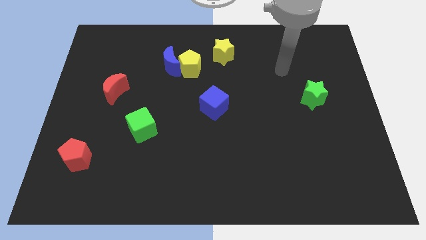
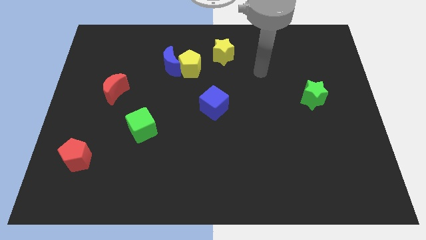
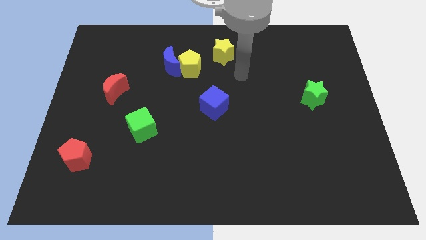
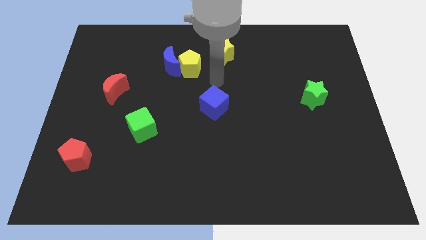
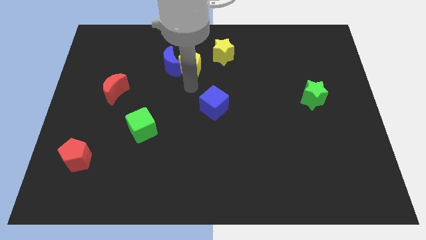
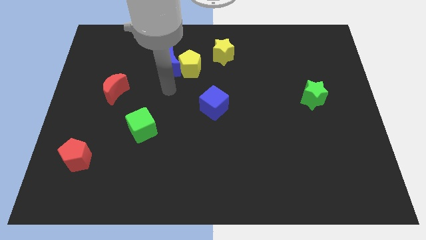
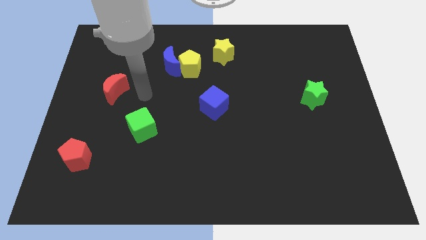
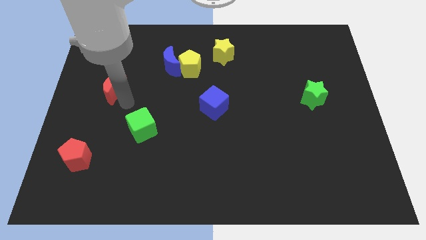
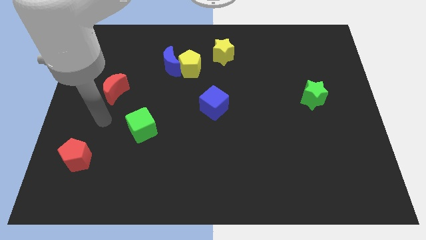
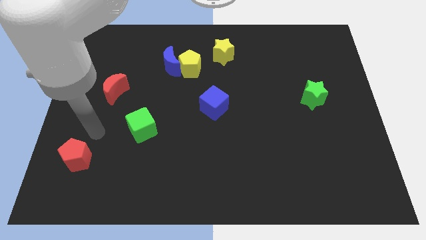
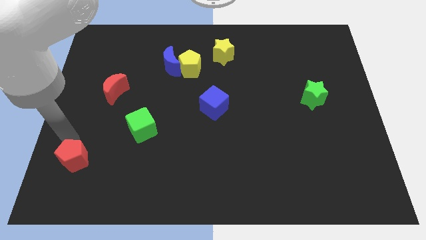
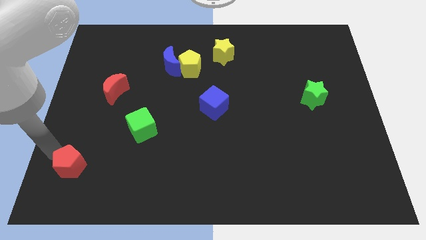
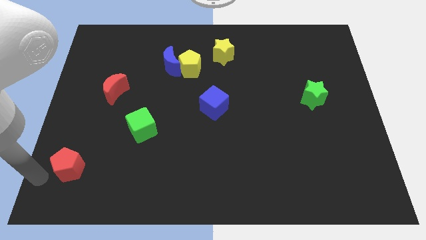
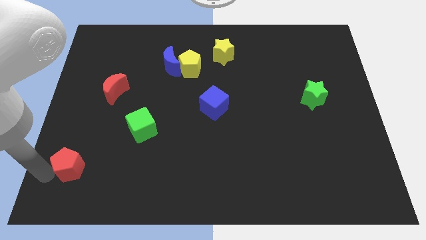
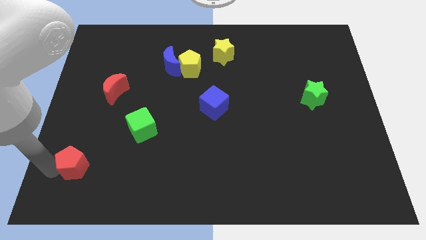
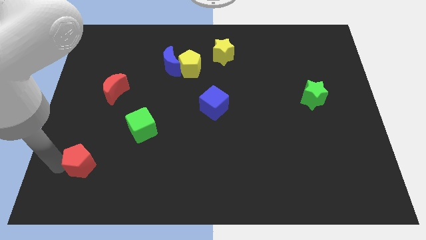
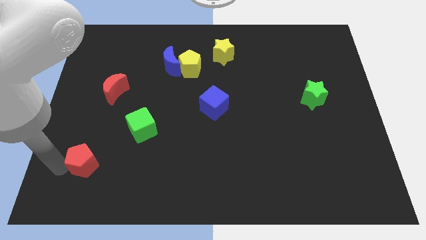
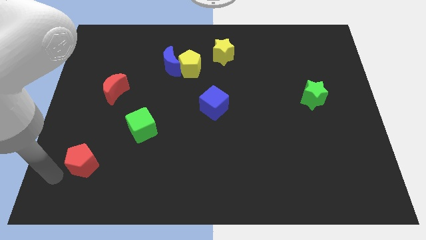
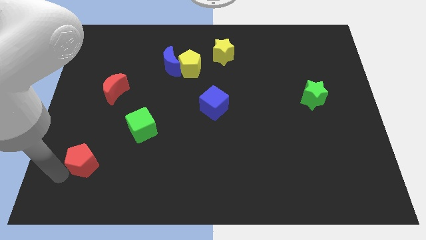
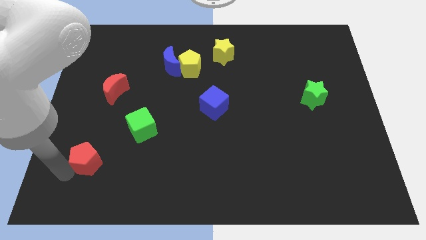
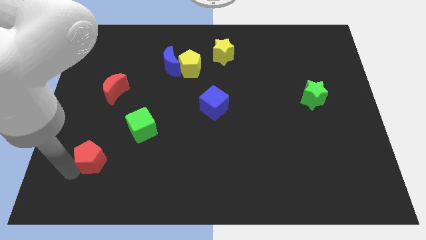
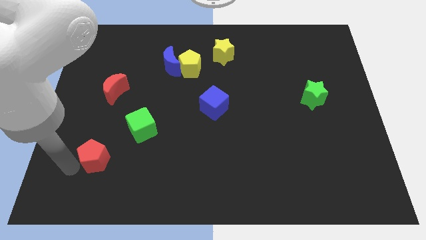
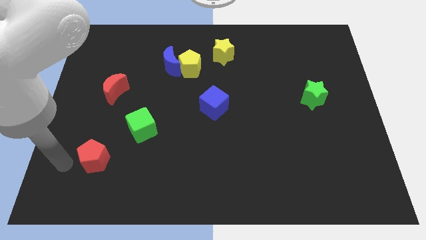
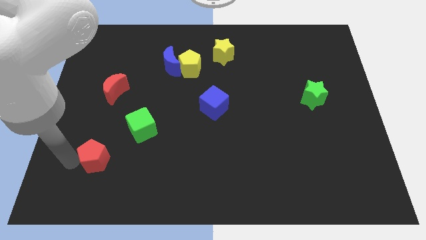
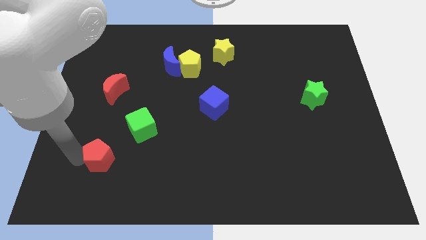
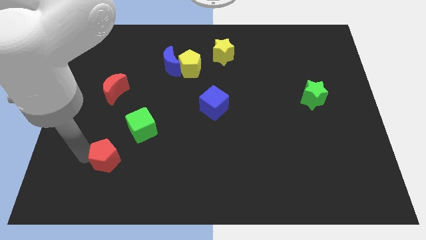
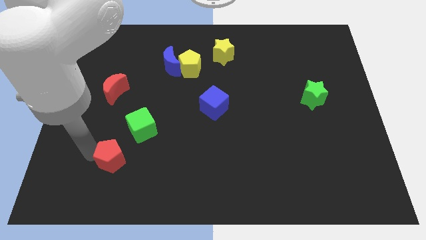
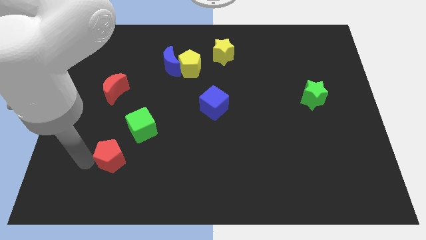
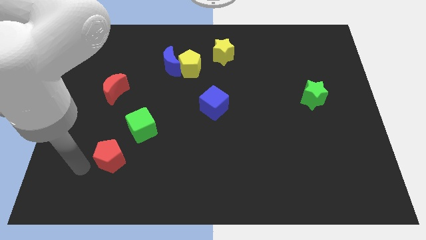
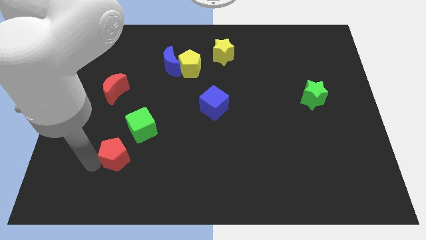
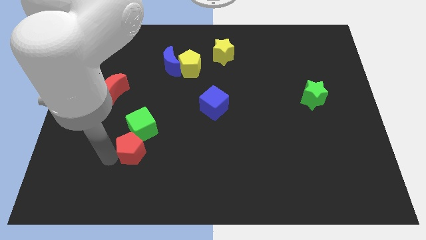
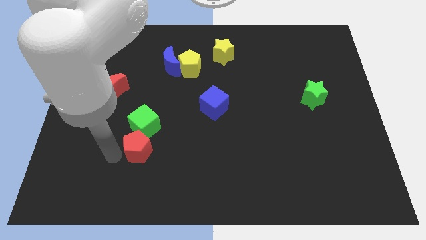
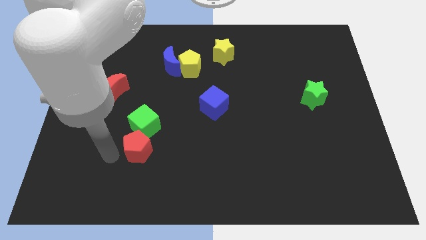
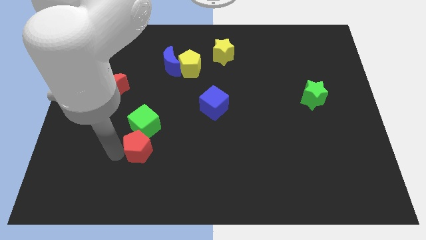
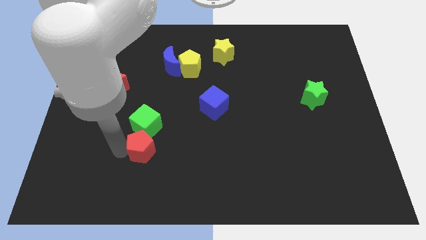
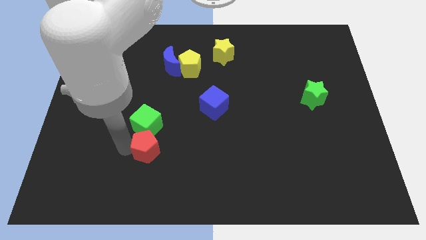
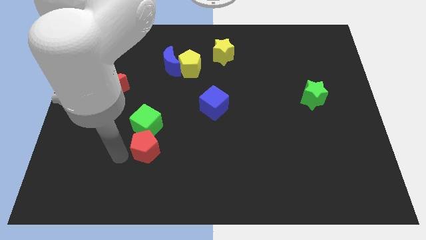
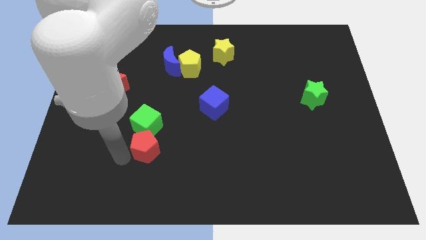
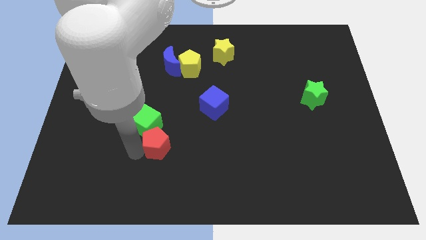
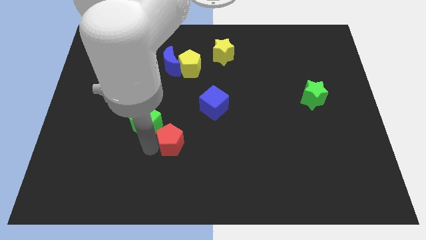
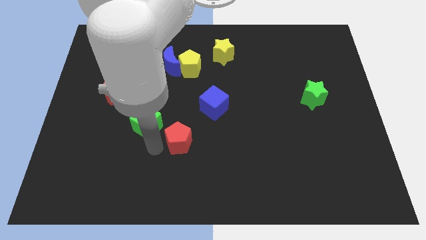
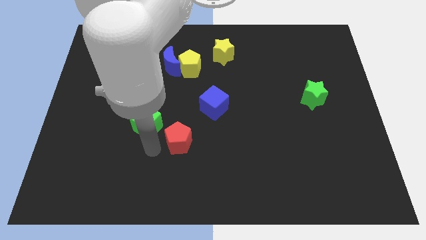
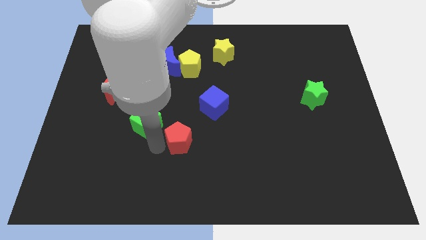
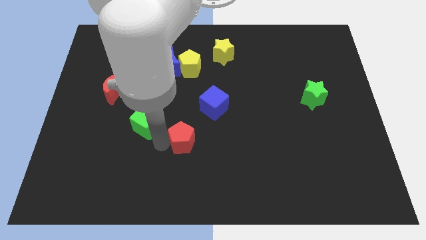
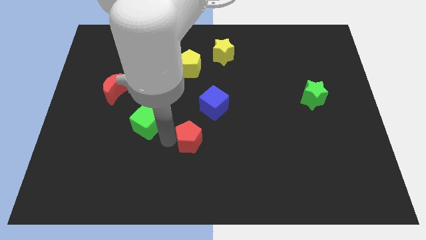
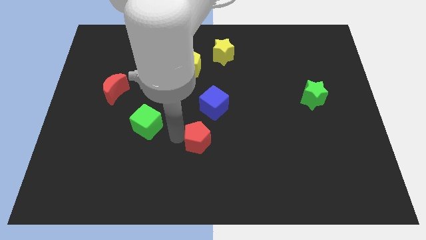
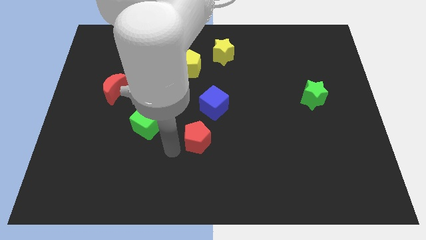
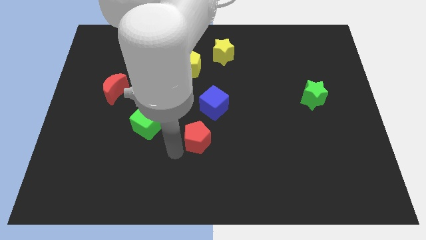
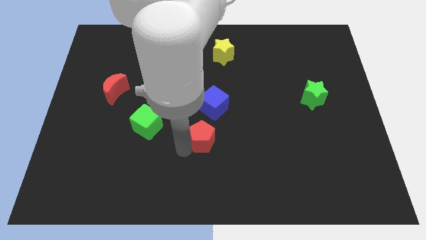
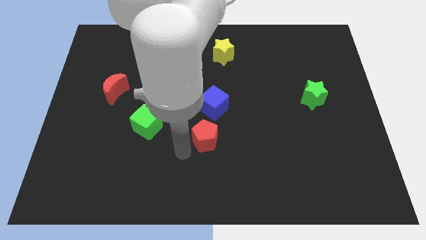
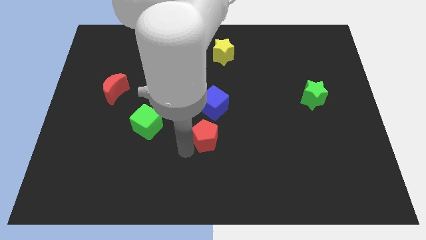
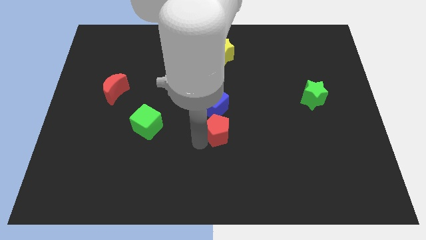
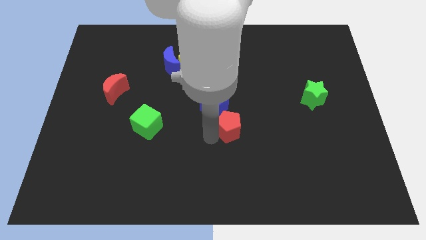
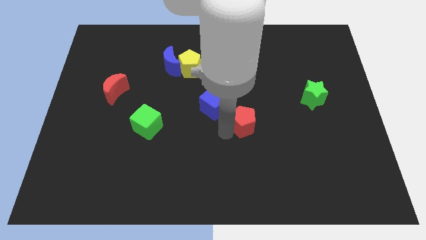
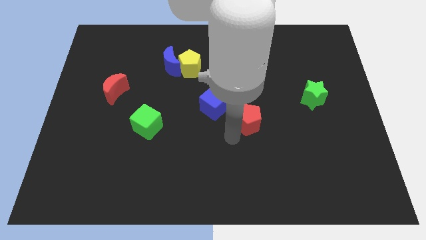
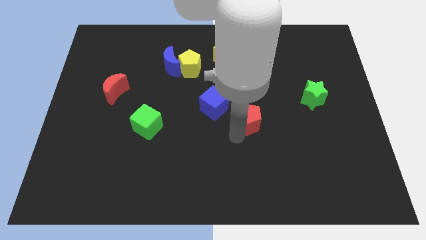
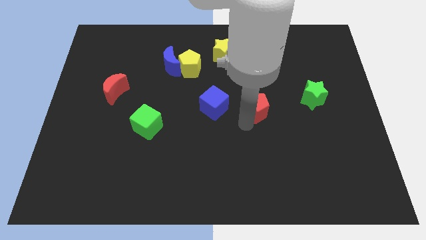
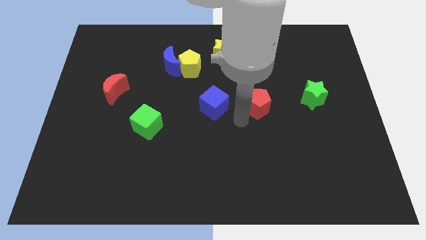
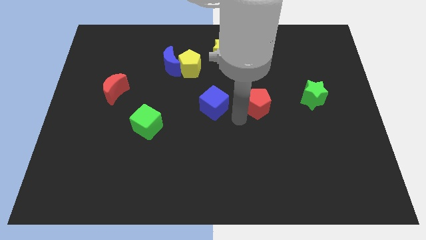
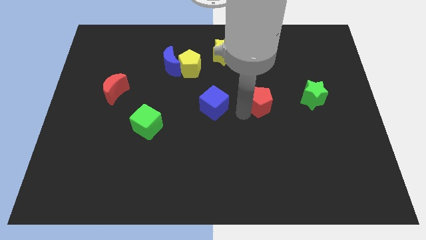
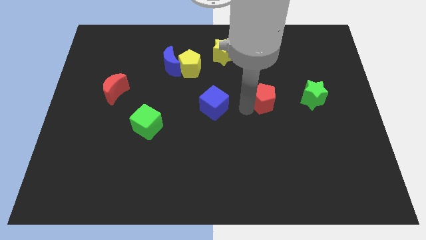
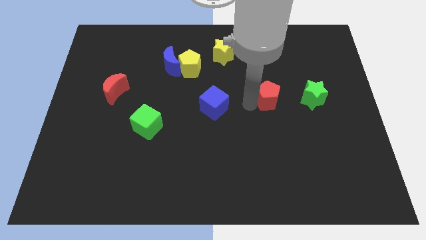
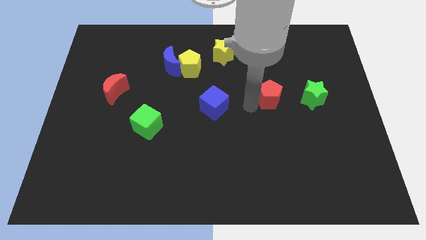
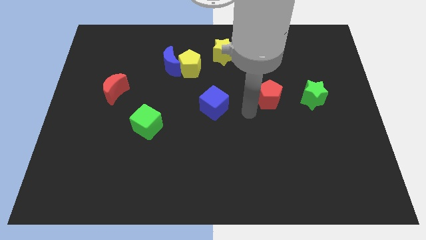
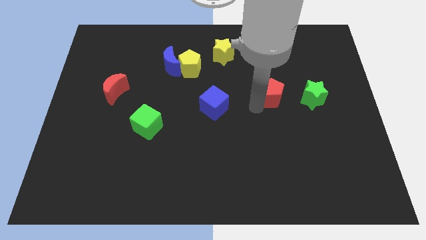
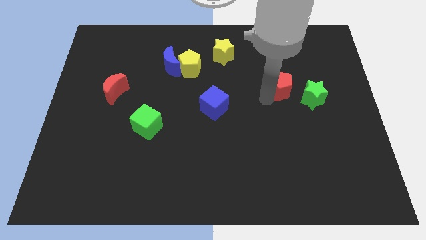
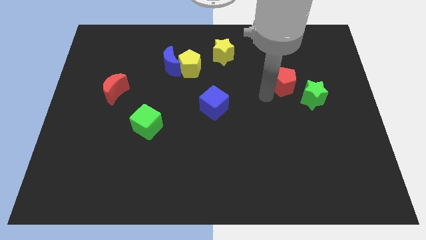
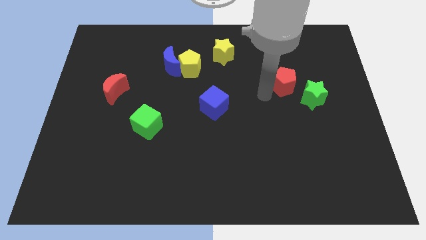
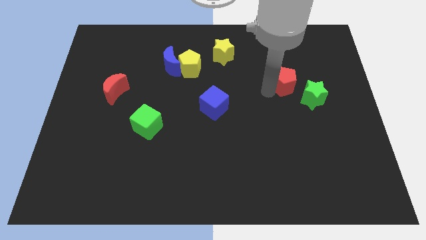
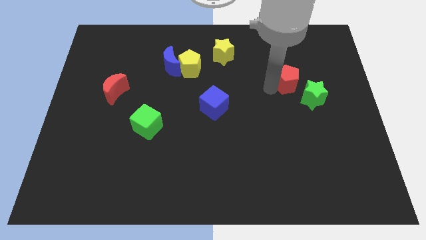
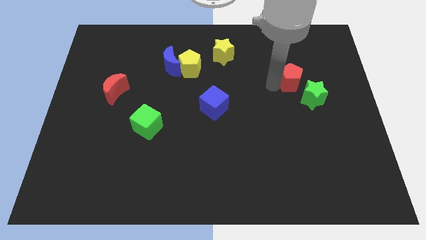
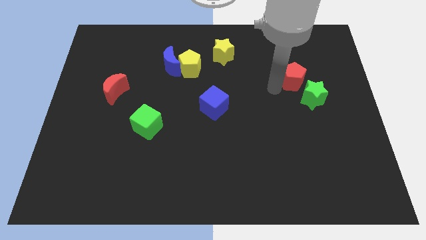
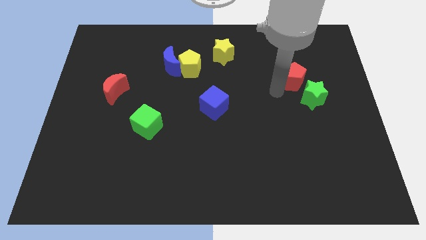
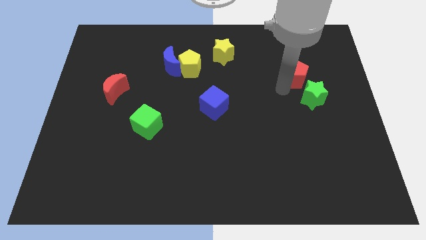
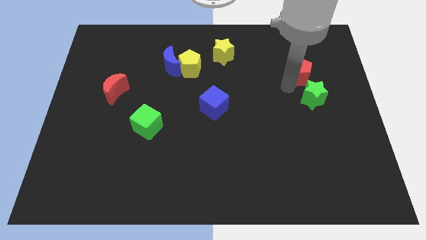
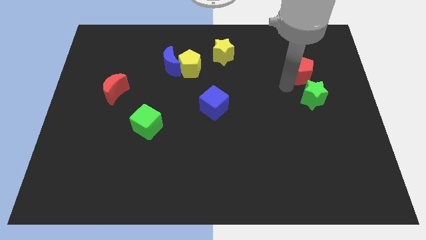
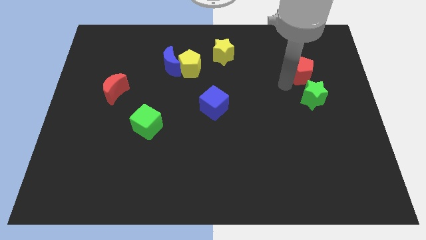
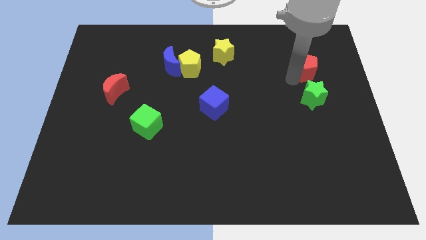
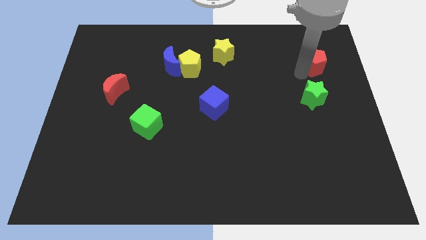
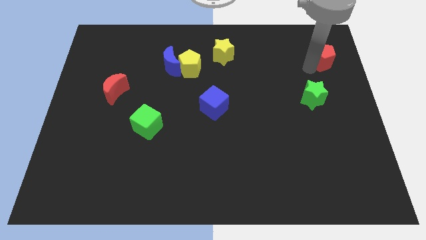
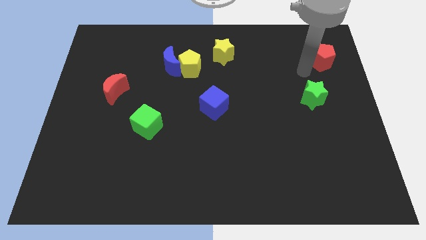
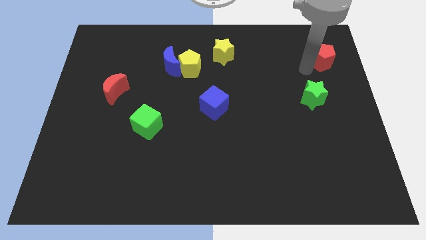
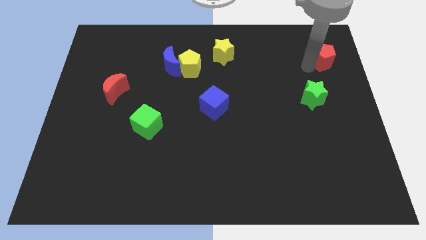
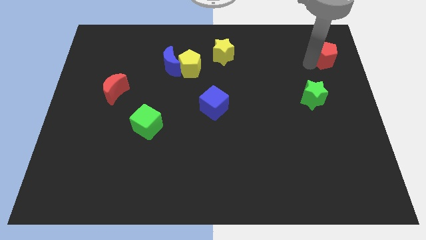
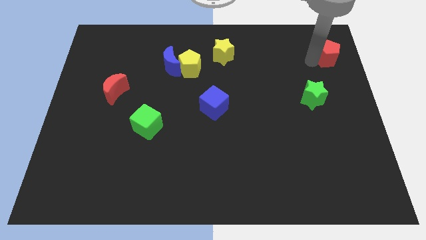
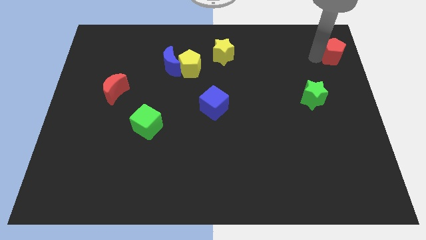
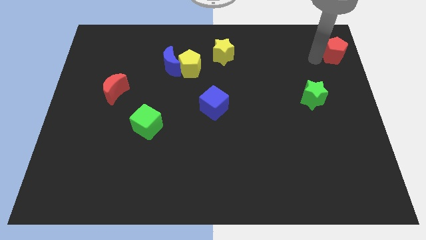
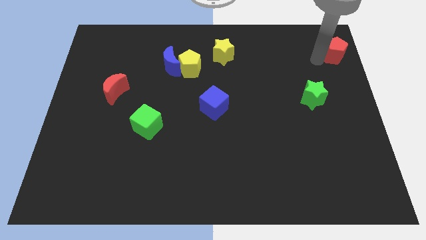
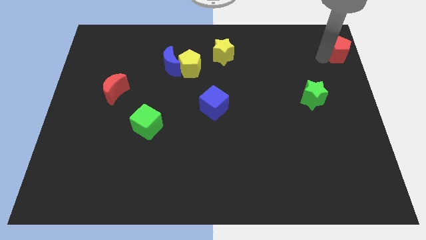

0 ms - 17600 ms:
move the red pentagon to the upper right corner
